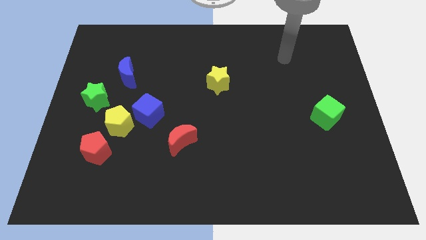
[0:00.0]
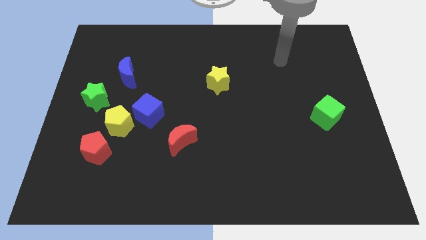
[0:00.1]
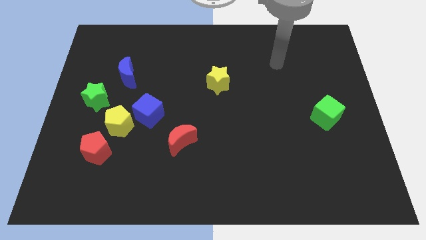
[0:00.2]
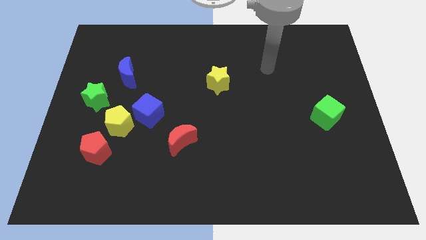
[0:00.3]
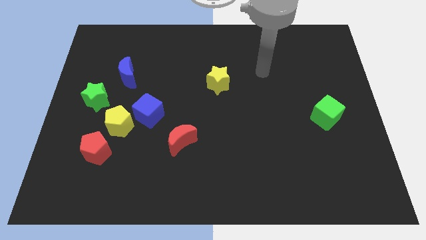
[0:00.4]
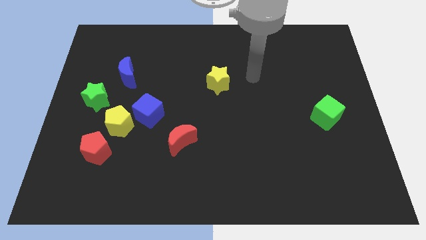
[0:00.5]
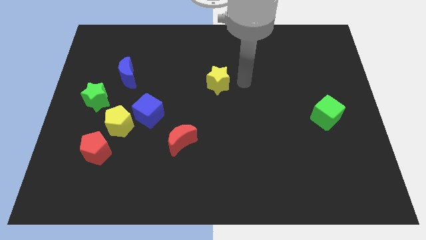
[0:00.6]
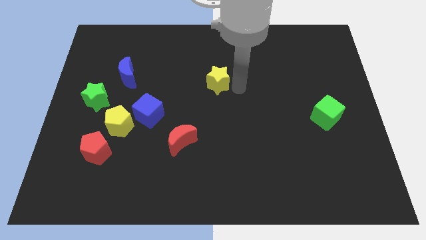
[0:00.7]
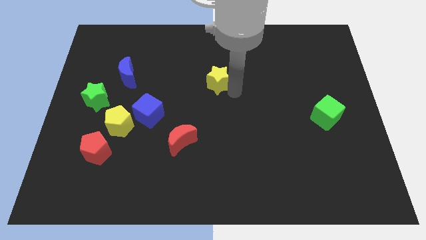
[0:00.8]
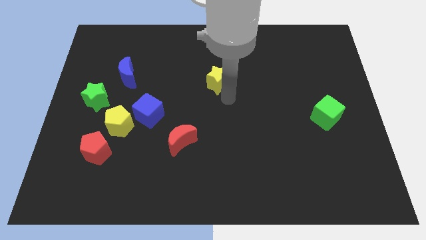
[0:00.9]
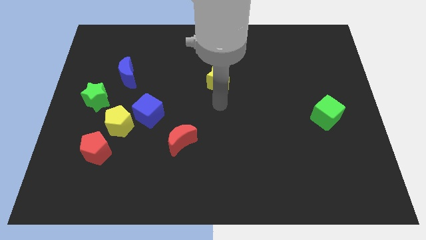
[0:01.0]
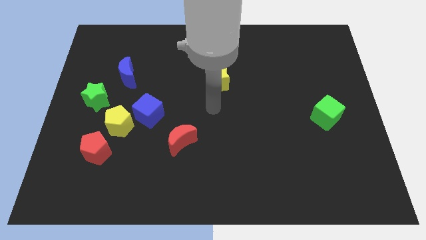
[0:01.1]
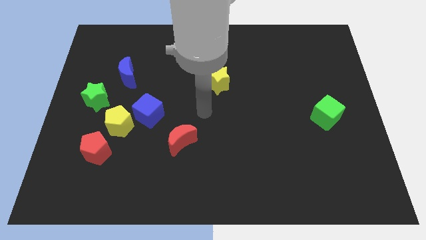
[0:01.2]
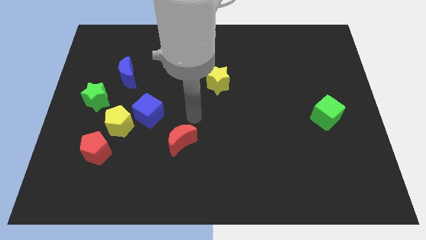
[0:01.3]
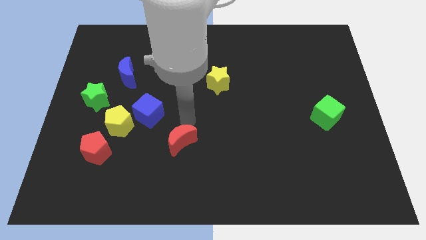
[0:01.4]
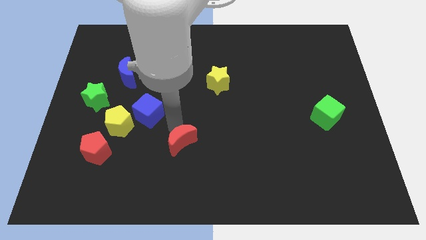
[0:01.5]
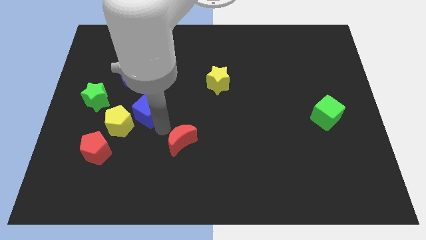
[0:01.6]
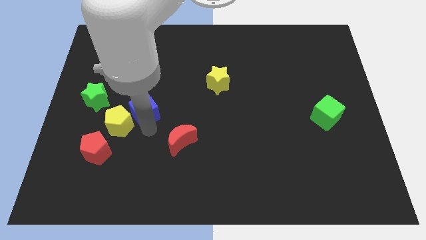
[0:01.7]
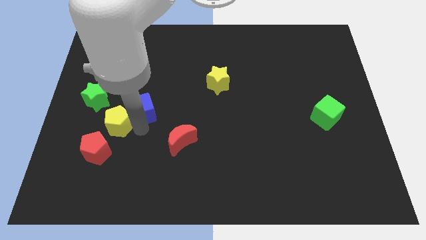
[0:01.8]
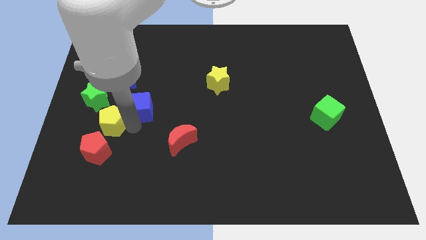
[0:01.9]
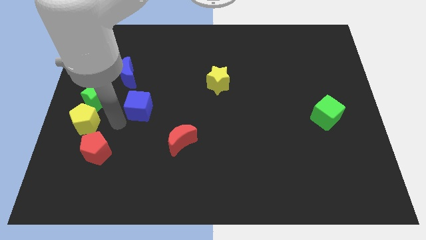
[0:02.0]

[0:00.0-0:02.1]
move the blue cube away from the yellow pentagon

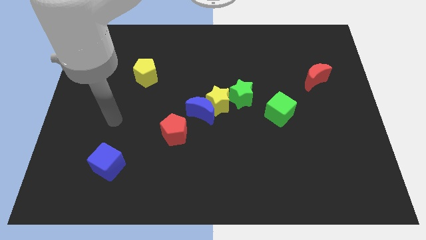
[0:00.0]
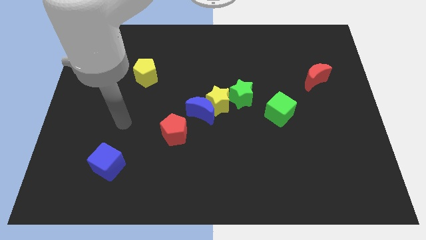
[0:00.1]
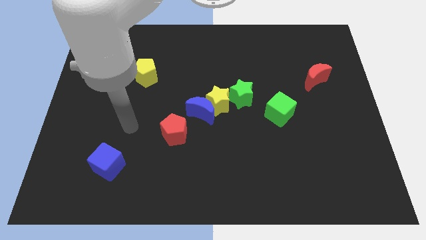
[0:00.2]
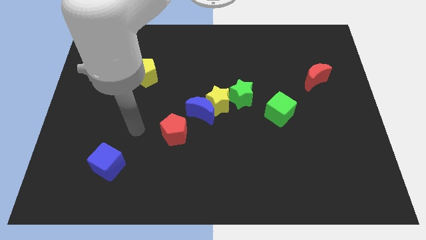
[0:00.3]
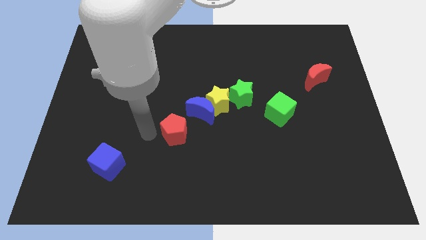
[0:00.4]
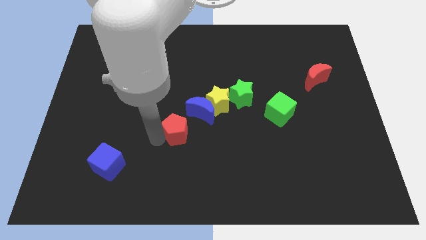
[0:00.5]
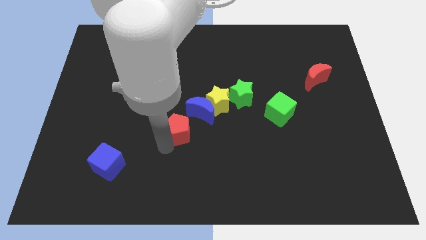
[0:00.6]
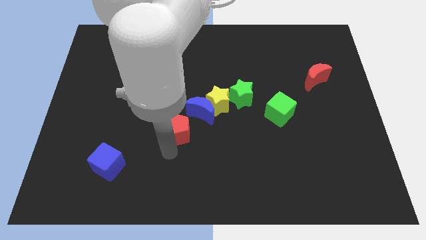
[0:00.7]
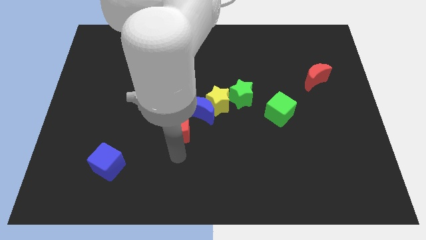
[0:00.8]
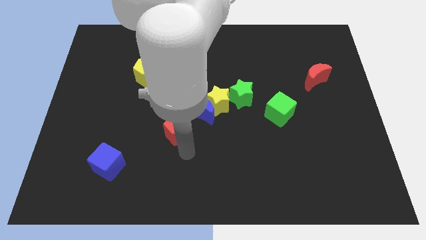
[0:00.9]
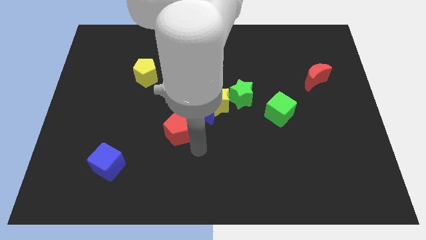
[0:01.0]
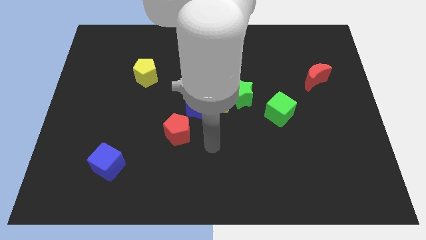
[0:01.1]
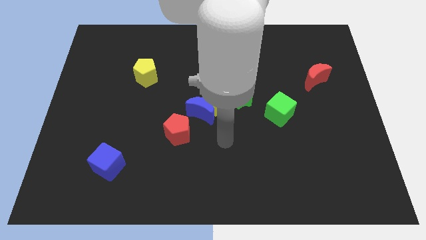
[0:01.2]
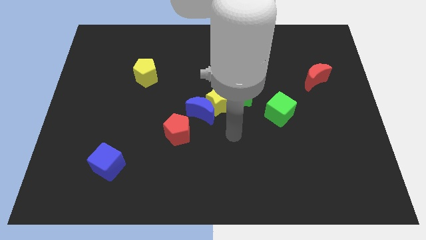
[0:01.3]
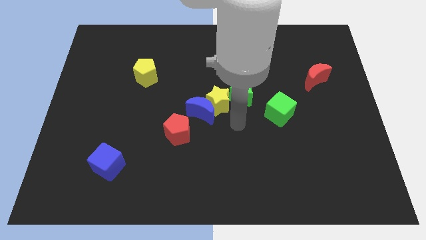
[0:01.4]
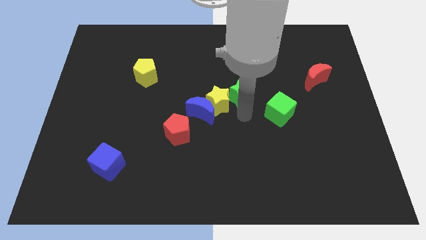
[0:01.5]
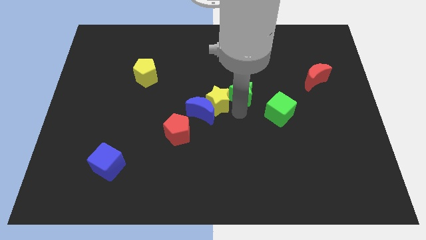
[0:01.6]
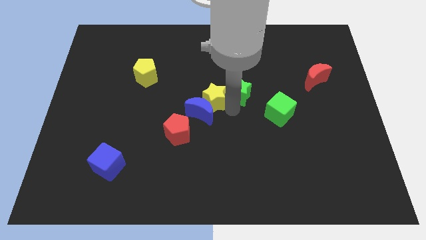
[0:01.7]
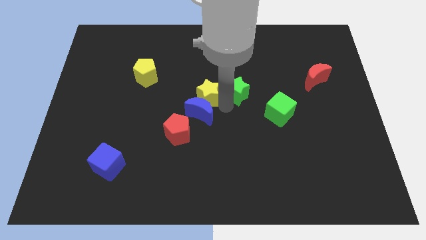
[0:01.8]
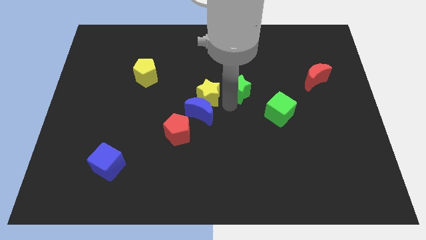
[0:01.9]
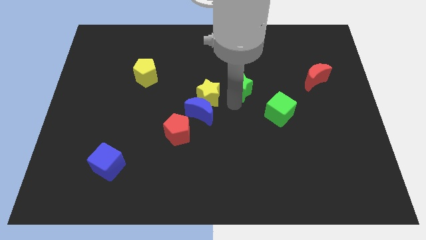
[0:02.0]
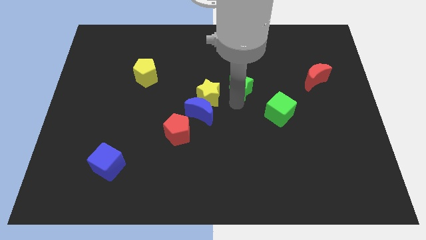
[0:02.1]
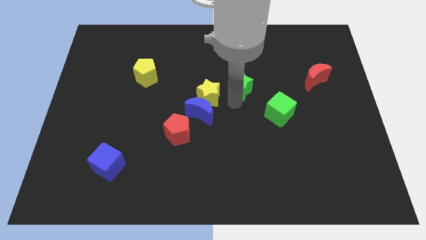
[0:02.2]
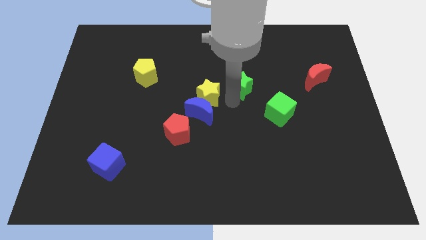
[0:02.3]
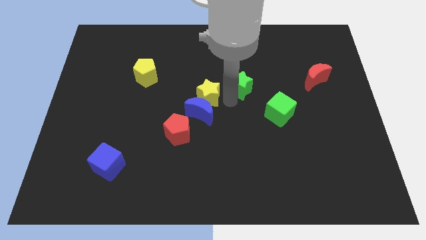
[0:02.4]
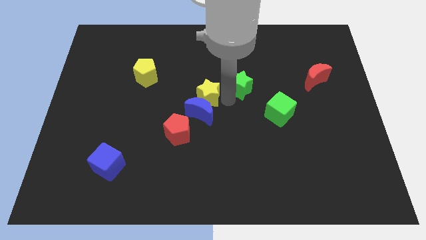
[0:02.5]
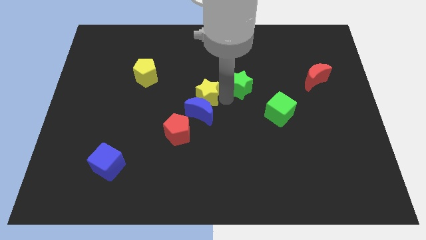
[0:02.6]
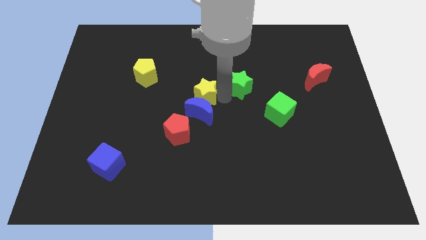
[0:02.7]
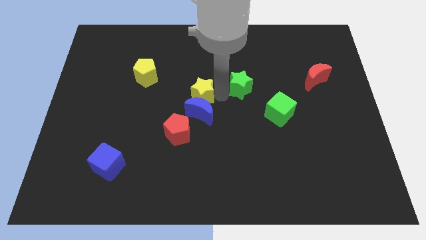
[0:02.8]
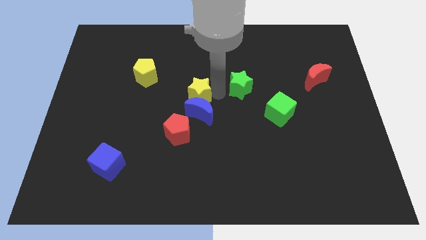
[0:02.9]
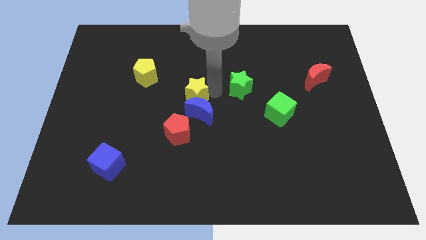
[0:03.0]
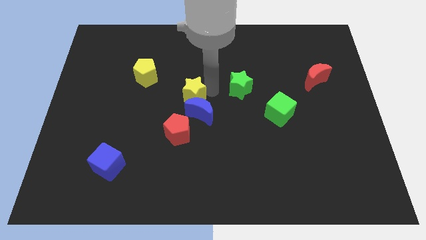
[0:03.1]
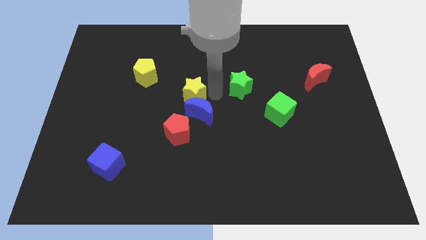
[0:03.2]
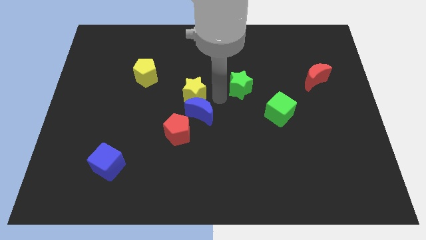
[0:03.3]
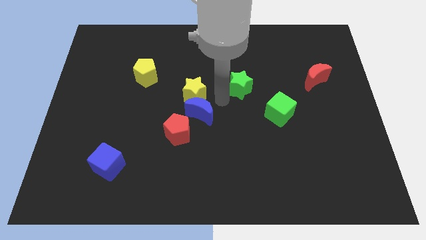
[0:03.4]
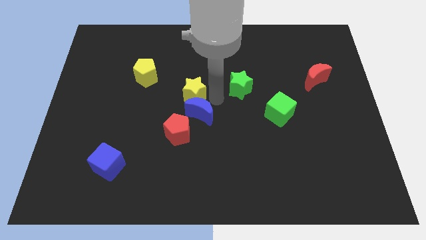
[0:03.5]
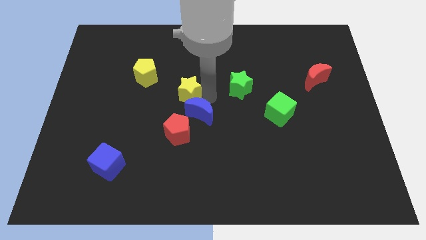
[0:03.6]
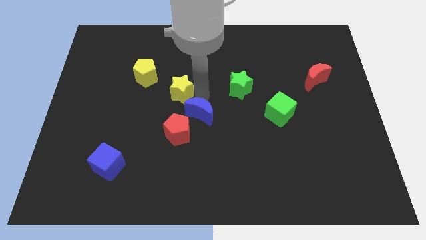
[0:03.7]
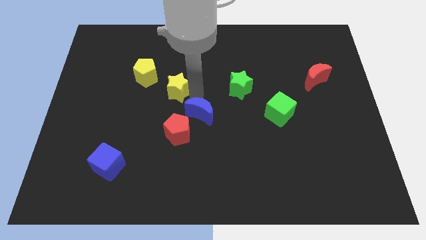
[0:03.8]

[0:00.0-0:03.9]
pull the yellow star apart from the blue moon and green star

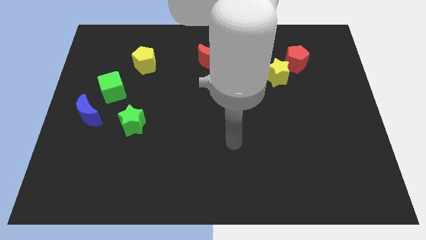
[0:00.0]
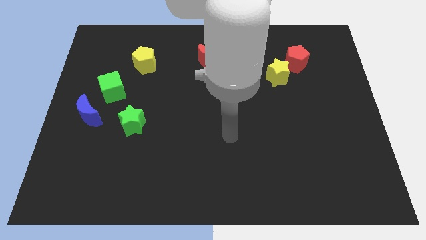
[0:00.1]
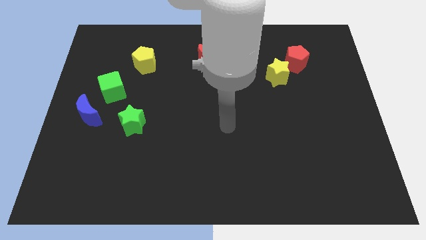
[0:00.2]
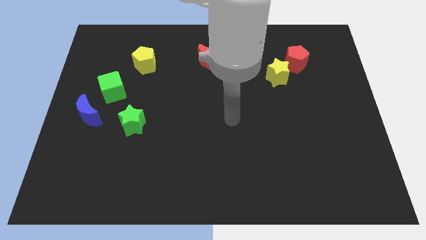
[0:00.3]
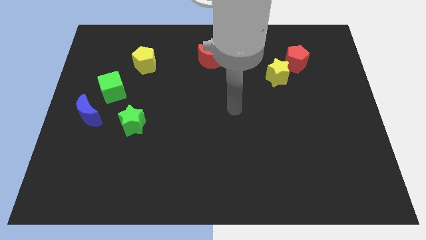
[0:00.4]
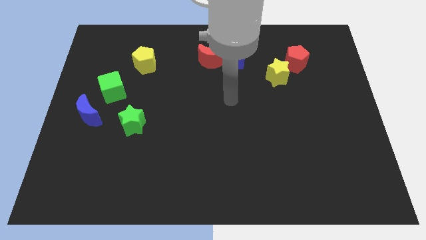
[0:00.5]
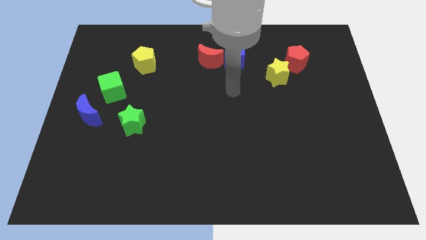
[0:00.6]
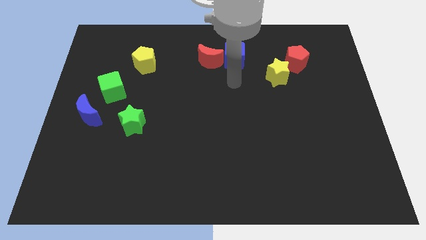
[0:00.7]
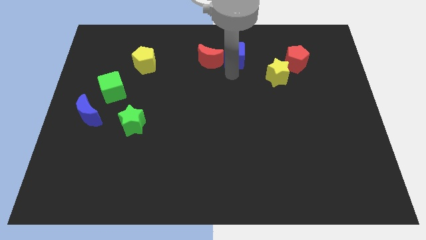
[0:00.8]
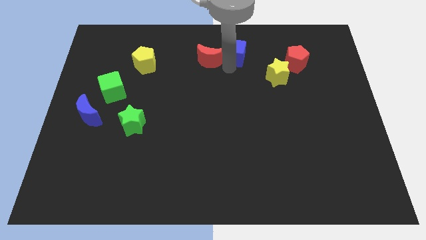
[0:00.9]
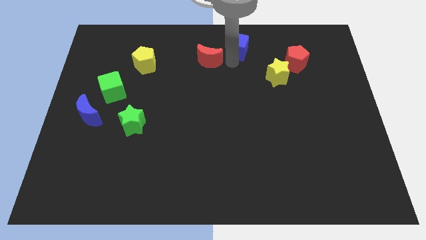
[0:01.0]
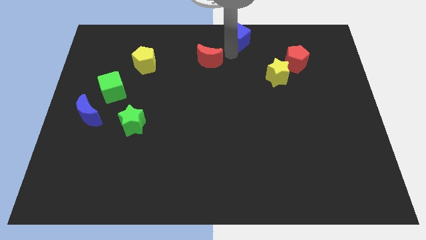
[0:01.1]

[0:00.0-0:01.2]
move the red moon away from the blue cube

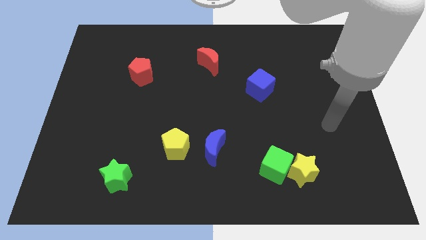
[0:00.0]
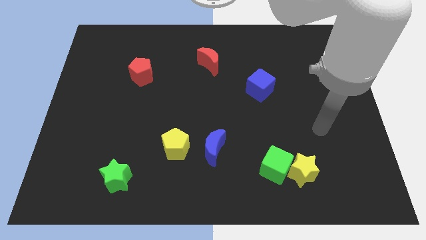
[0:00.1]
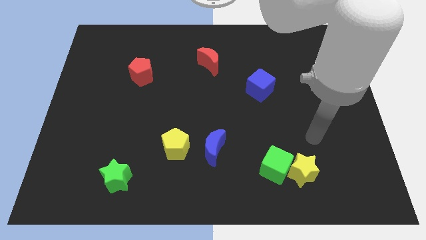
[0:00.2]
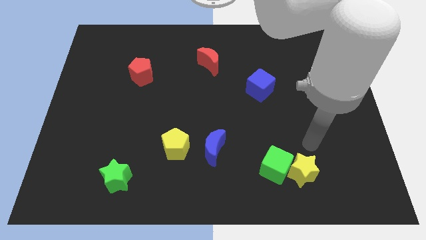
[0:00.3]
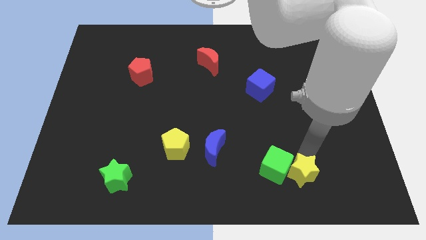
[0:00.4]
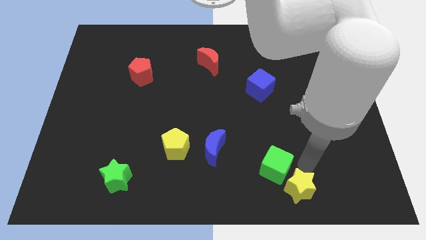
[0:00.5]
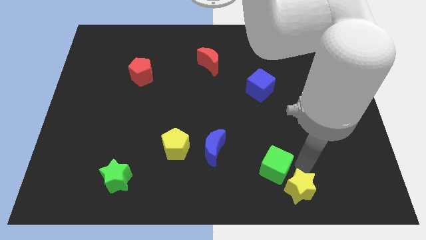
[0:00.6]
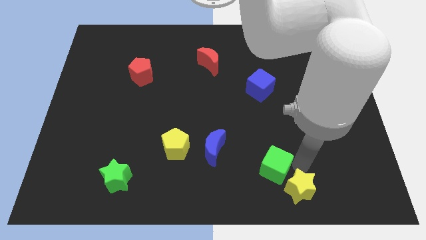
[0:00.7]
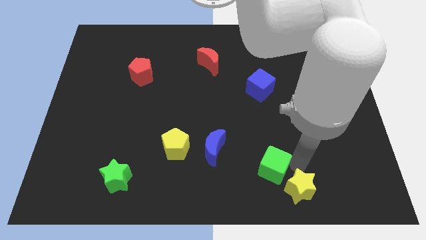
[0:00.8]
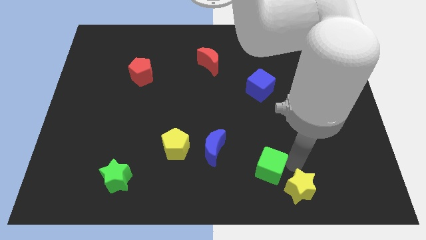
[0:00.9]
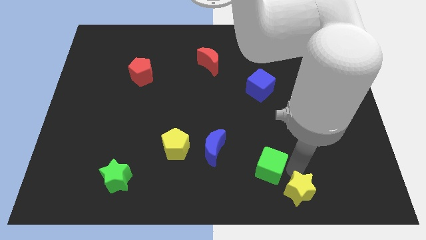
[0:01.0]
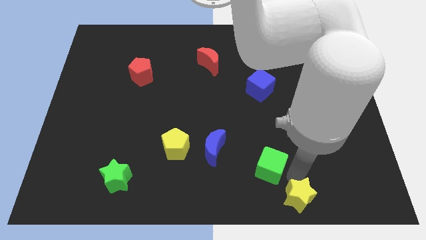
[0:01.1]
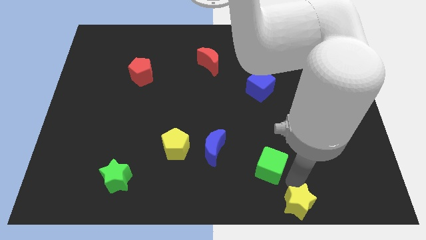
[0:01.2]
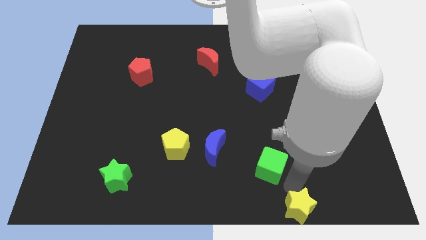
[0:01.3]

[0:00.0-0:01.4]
move the green cube away from the yellow star

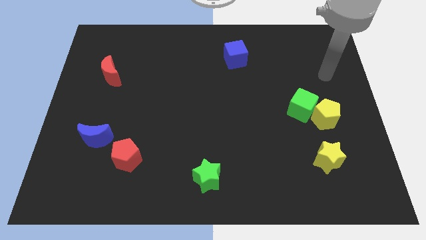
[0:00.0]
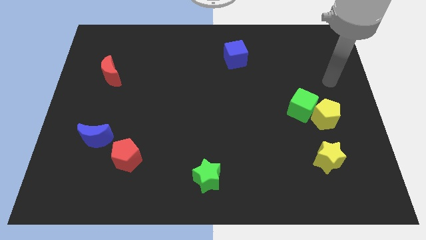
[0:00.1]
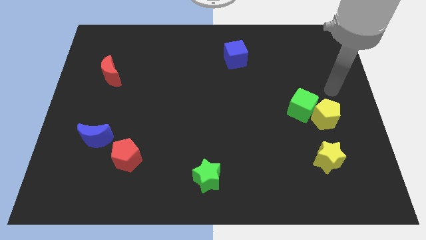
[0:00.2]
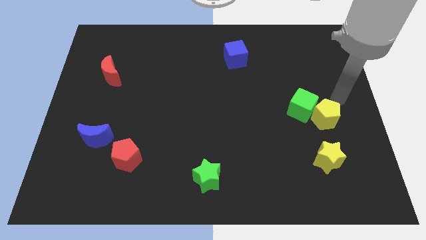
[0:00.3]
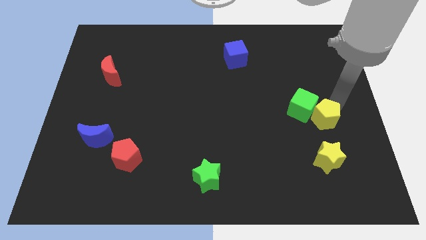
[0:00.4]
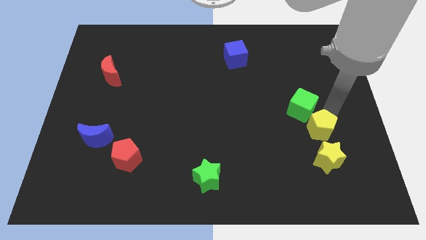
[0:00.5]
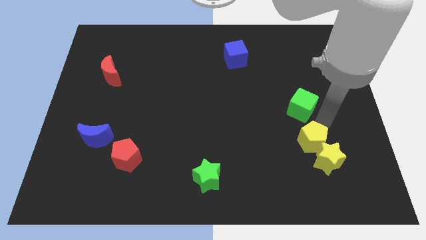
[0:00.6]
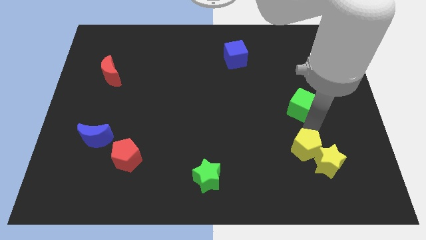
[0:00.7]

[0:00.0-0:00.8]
move the green cube away from the yellow pentagon
